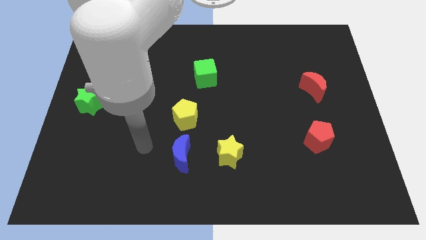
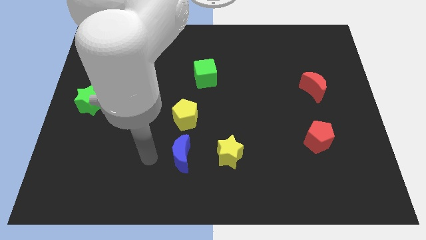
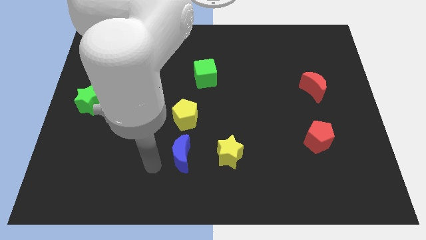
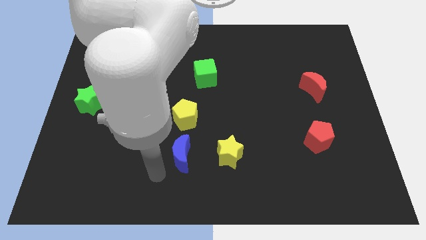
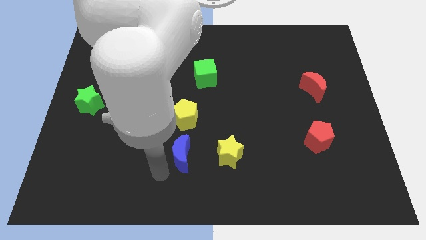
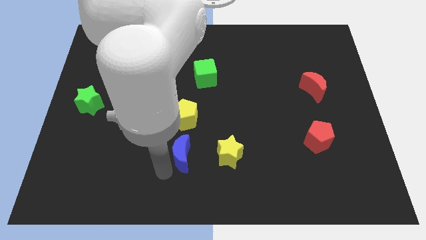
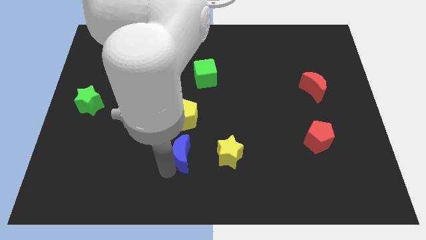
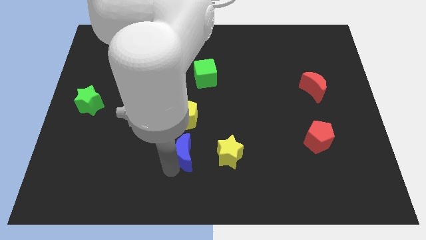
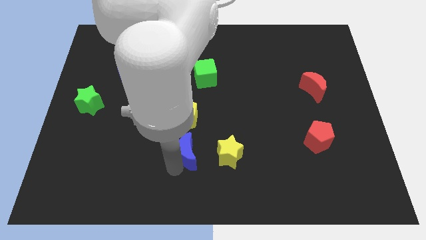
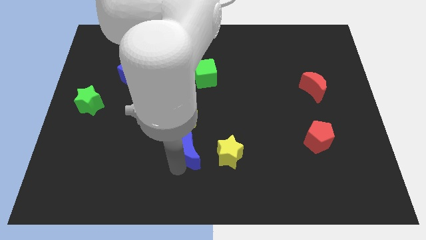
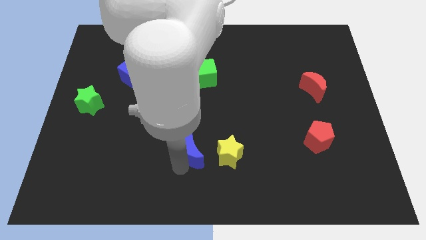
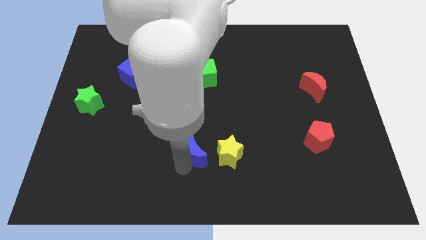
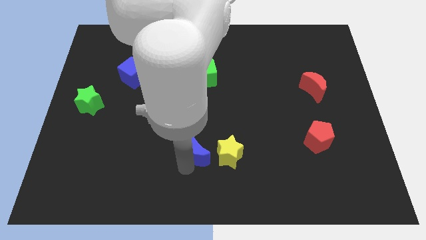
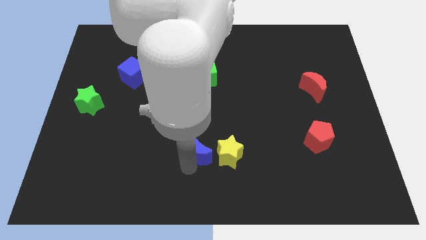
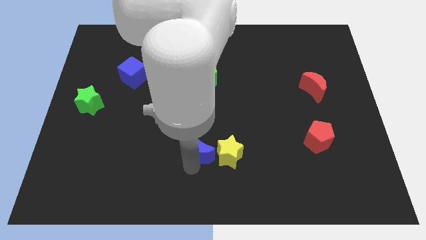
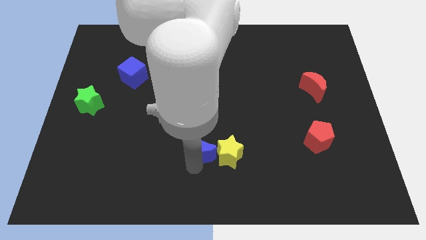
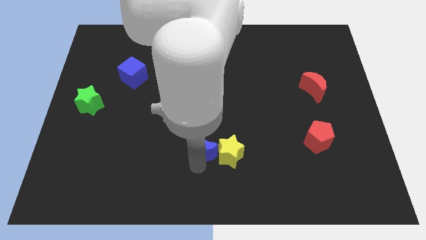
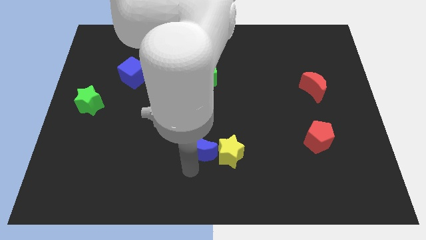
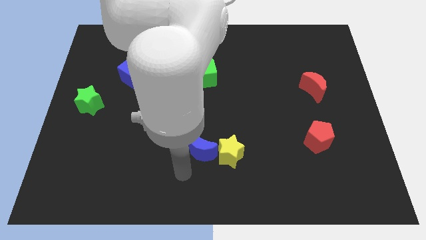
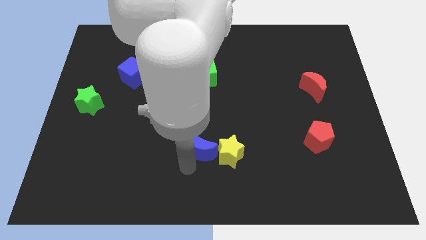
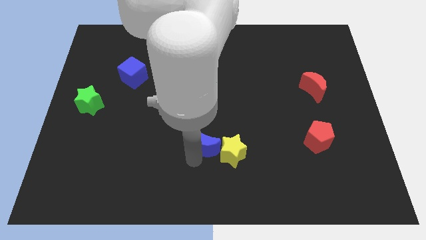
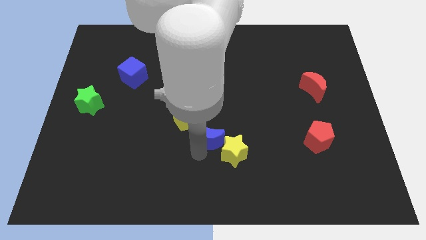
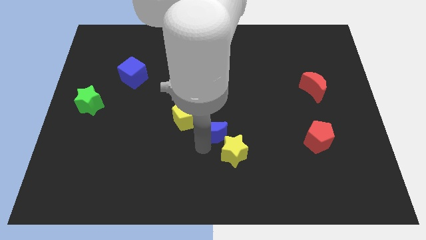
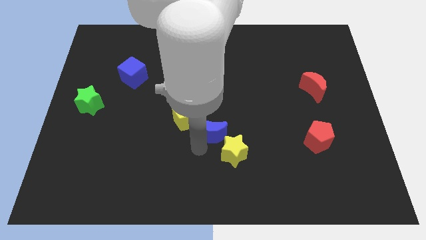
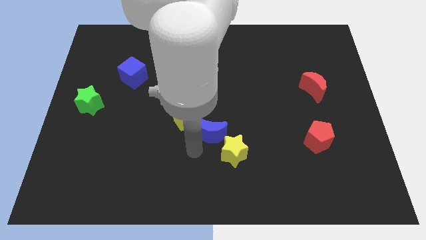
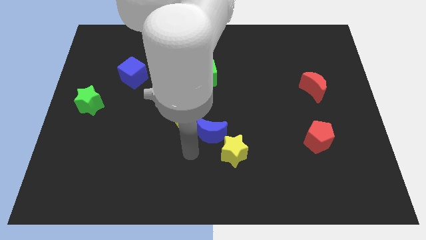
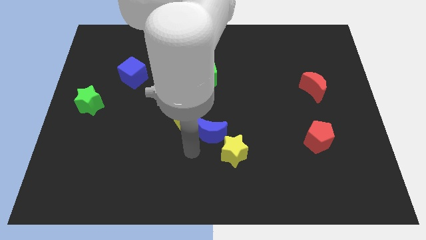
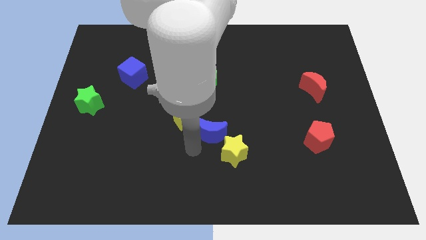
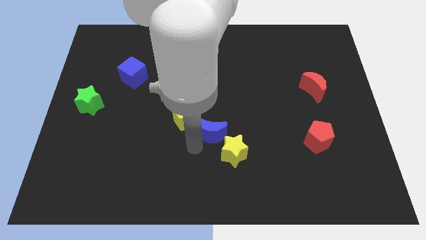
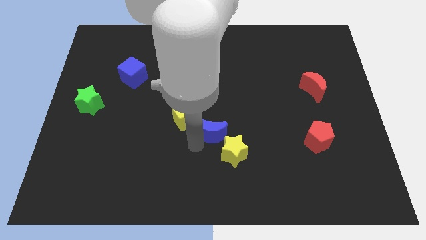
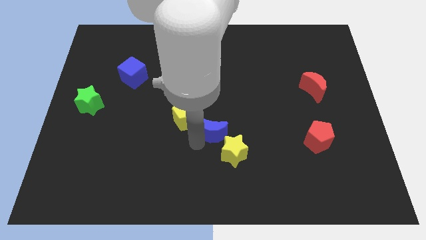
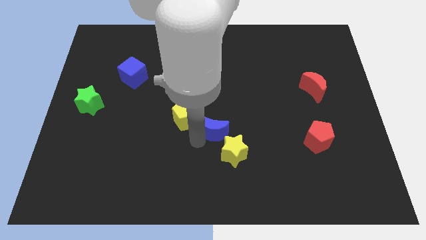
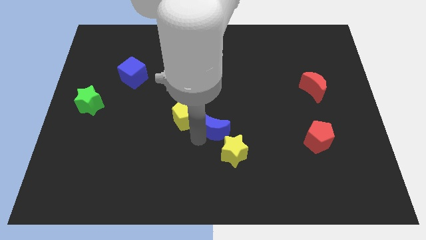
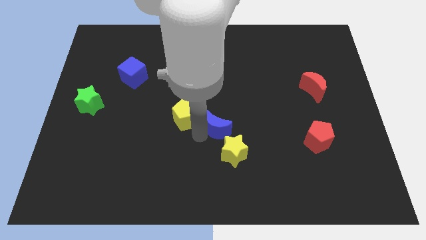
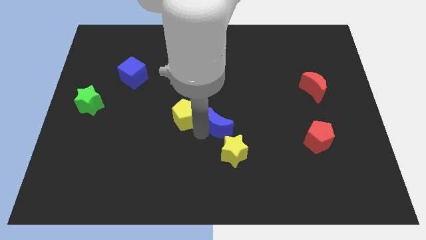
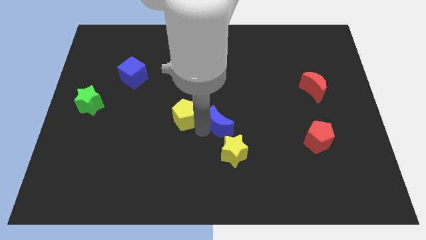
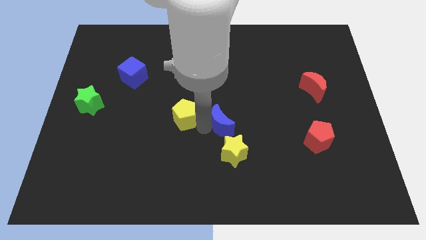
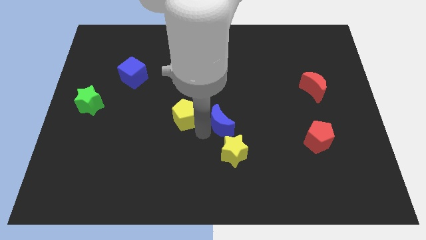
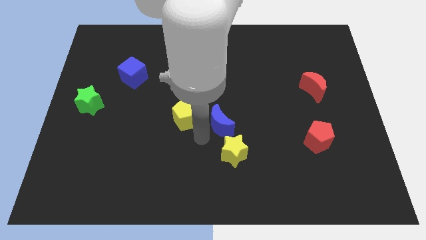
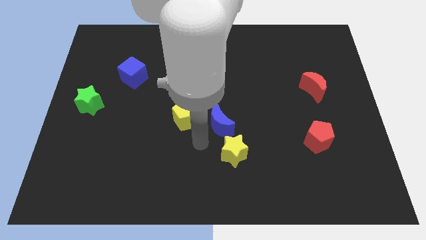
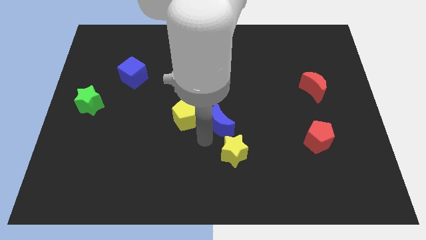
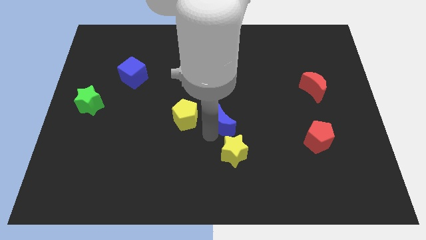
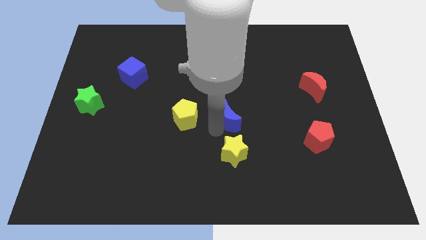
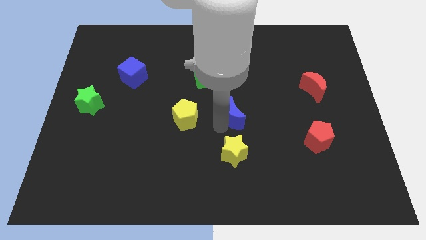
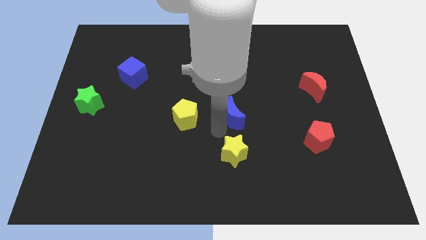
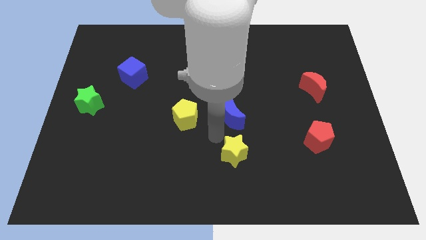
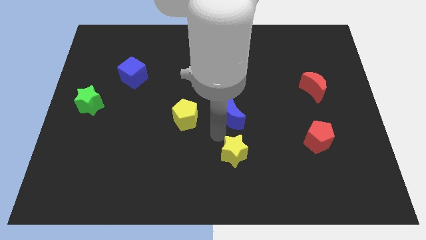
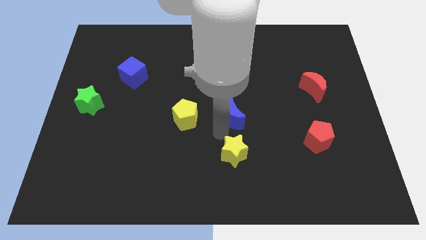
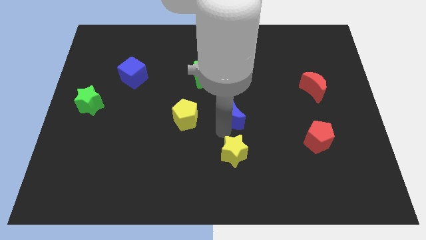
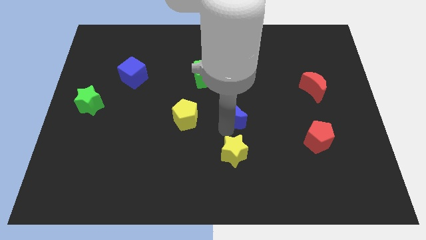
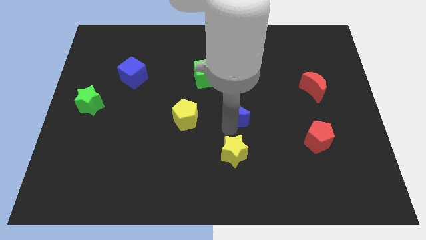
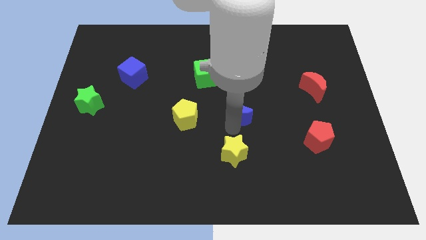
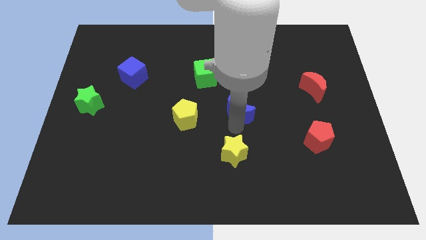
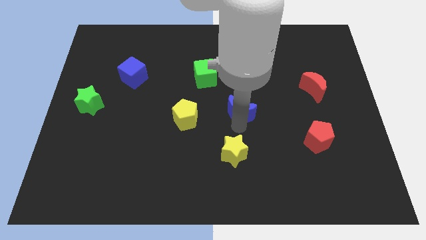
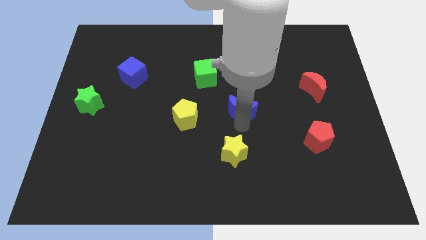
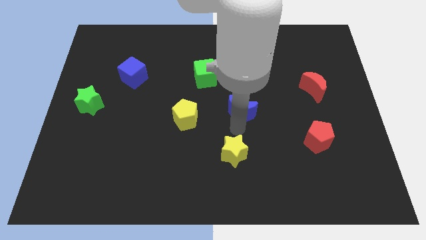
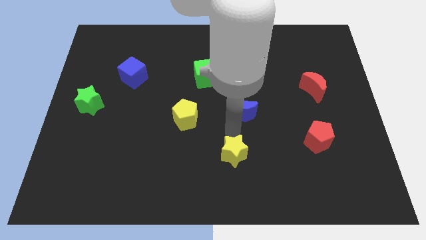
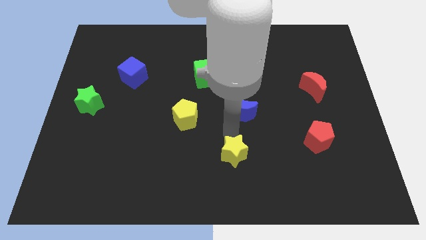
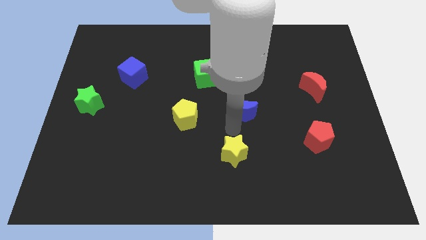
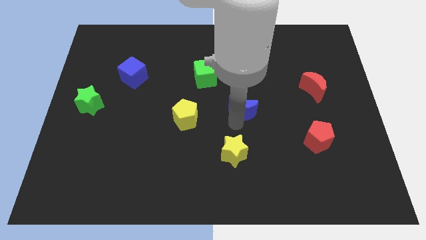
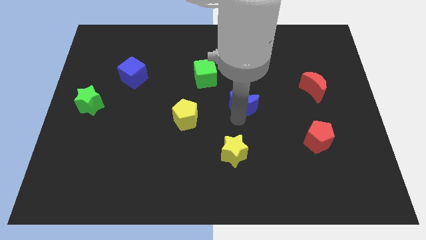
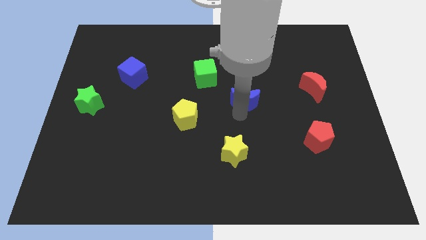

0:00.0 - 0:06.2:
push the blue moon up and to the right

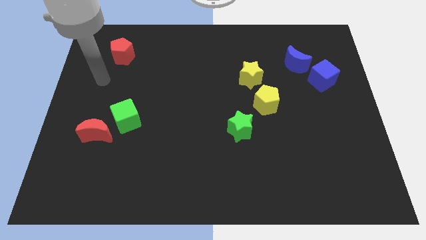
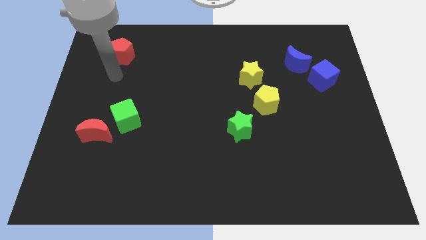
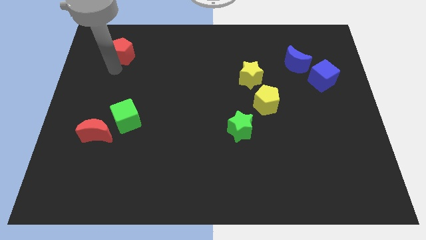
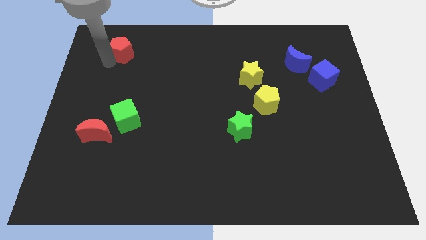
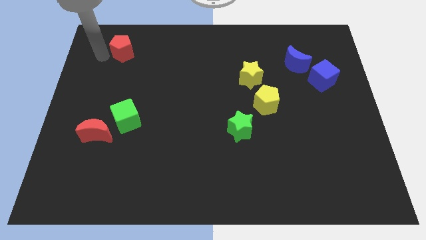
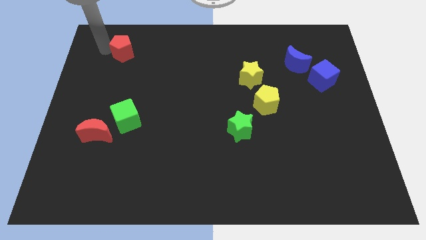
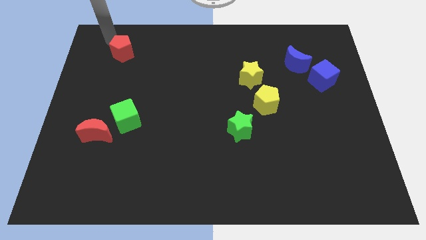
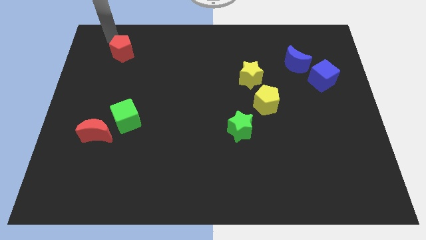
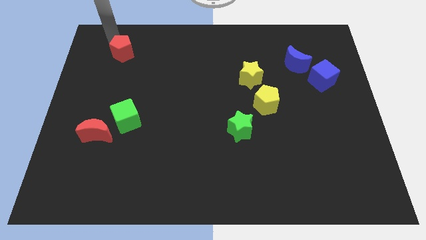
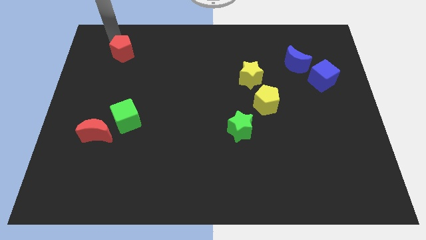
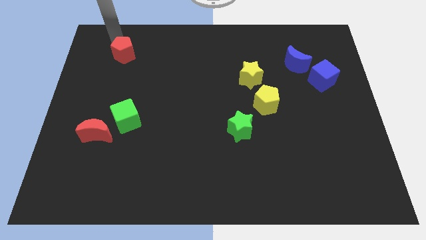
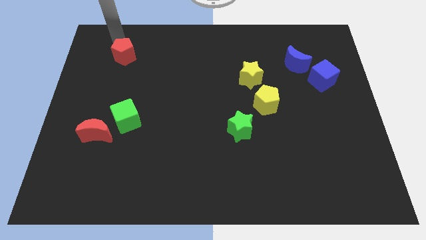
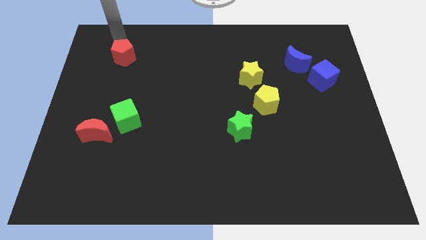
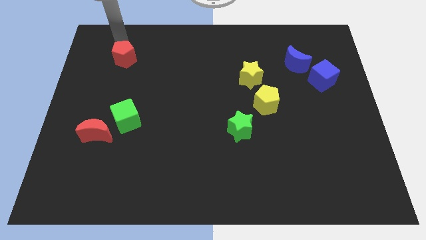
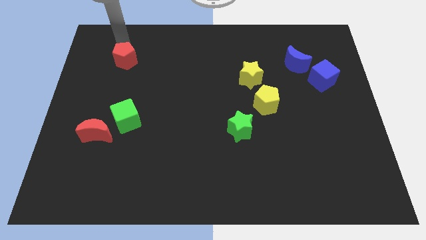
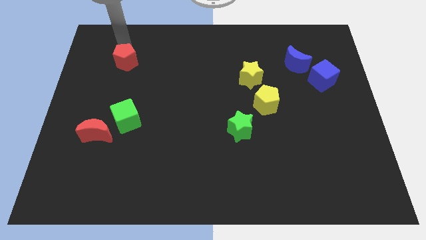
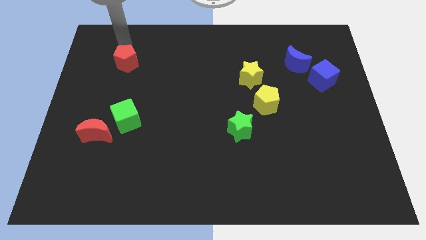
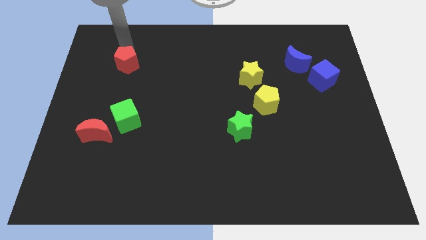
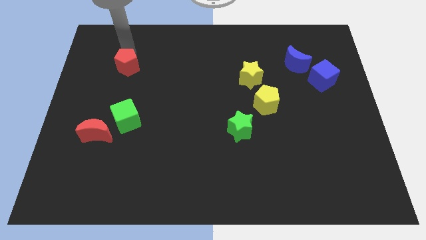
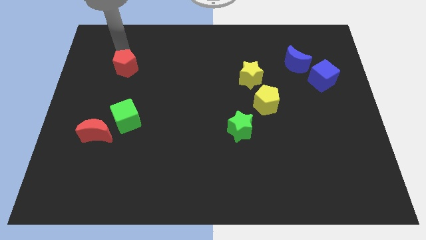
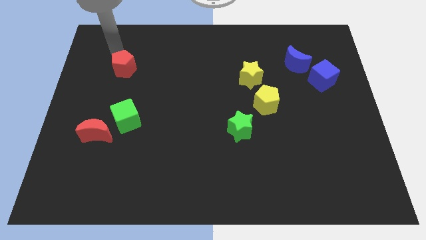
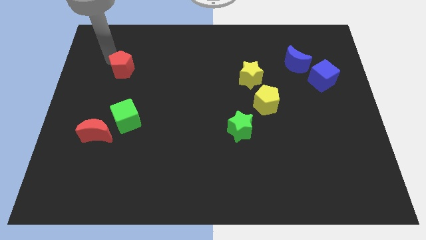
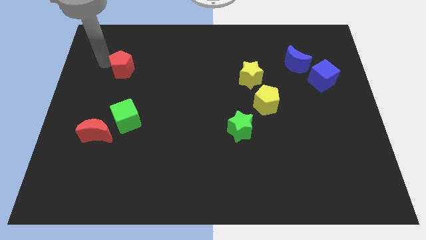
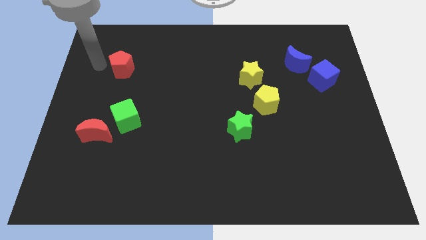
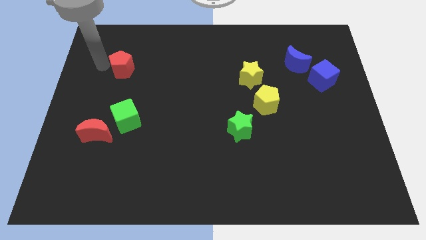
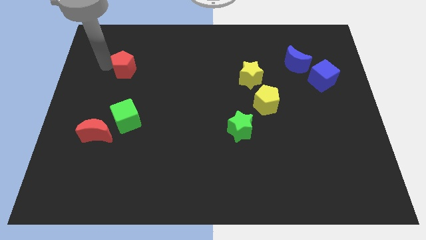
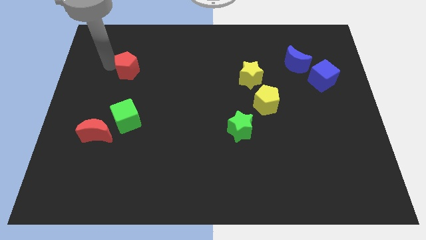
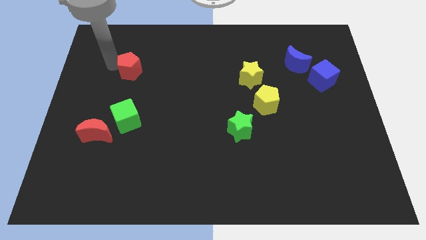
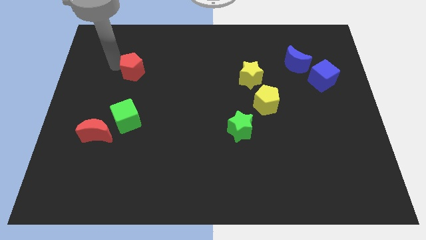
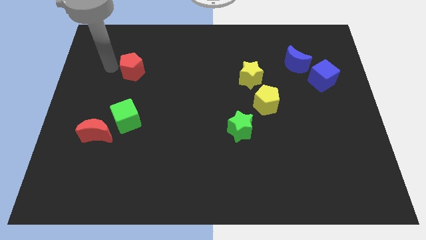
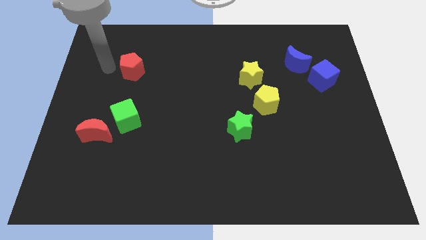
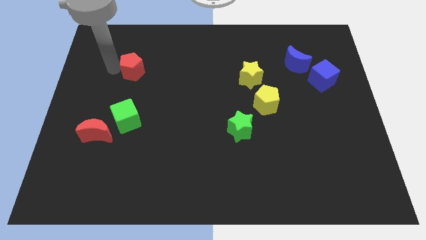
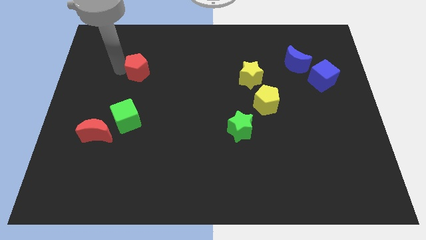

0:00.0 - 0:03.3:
slide the red pentagon diagonally down and right slightly
